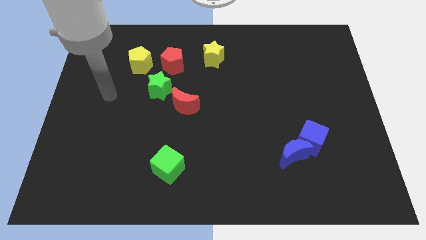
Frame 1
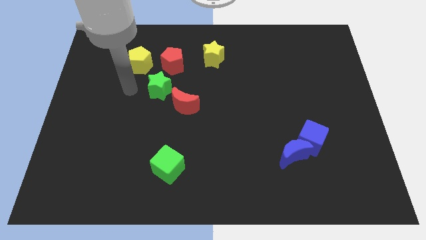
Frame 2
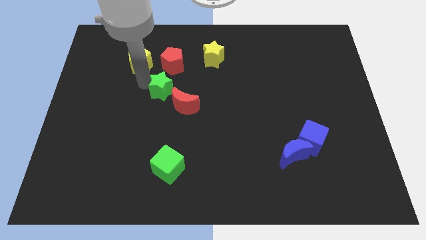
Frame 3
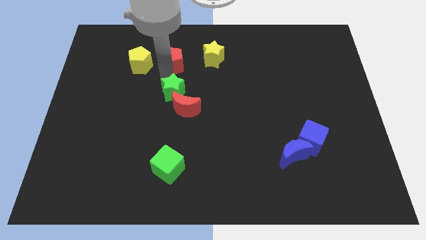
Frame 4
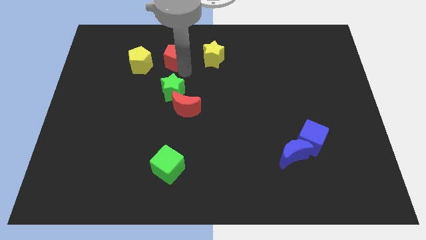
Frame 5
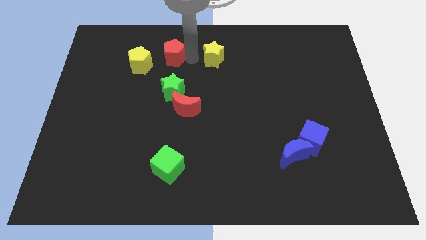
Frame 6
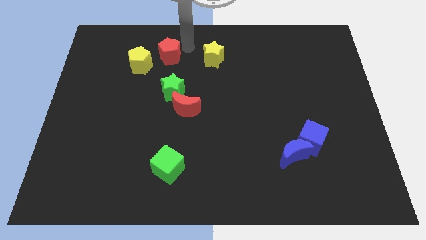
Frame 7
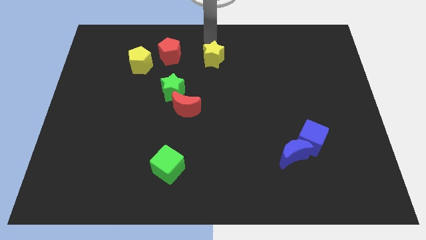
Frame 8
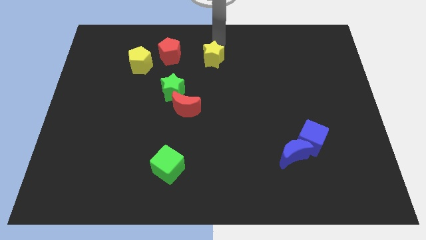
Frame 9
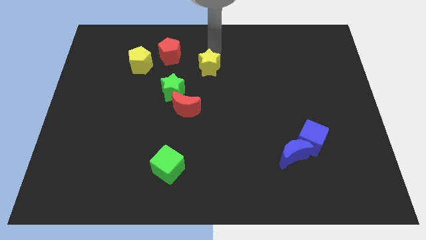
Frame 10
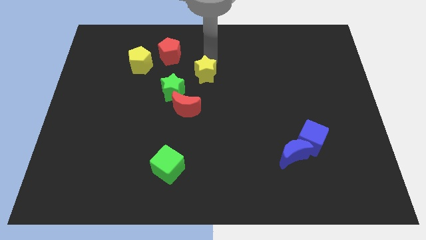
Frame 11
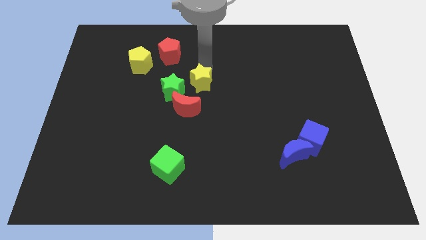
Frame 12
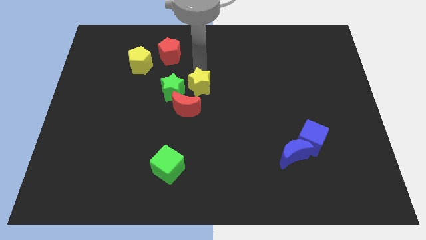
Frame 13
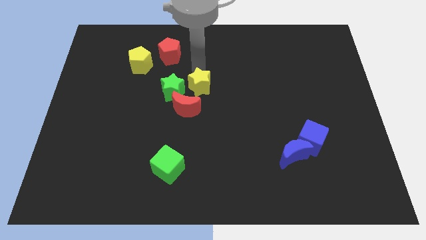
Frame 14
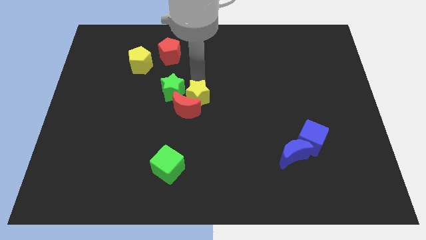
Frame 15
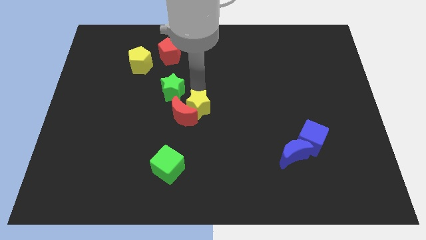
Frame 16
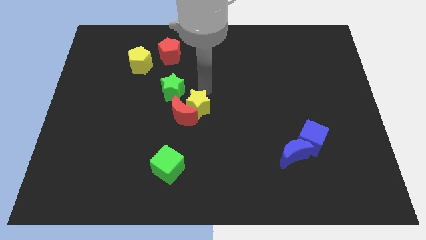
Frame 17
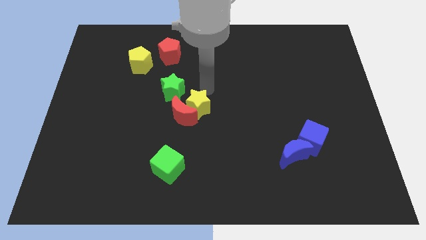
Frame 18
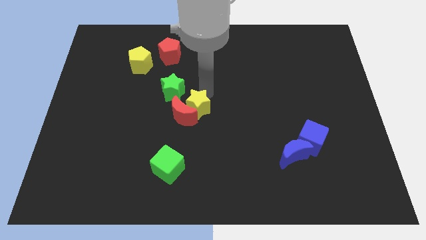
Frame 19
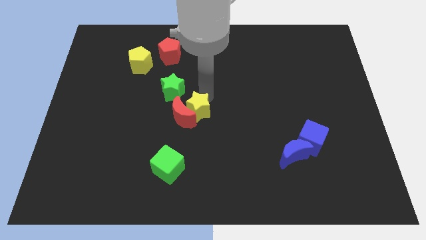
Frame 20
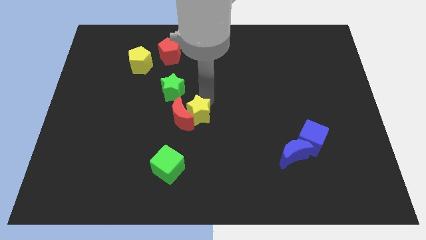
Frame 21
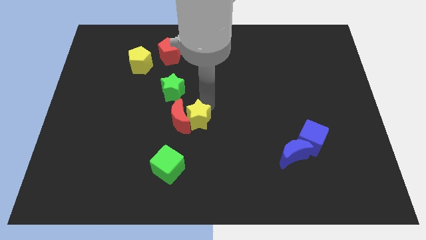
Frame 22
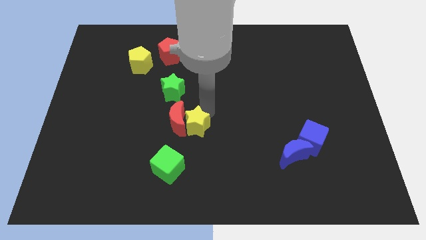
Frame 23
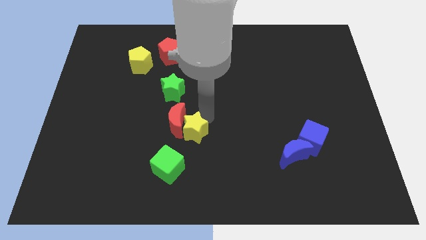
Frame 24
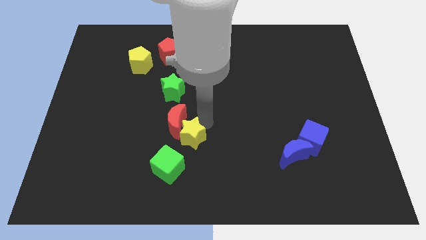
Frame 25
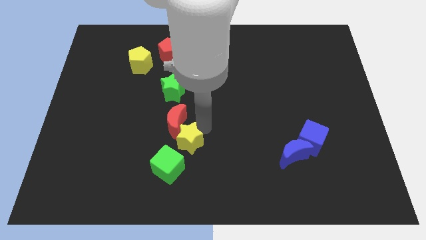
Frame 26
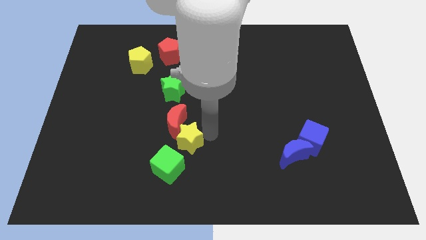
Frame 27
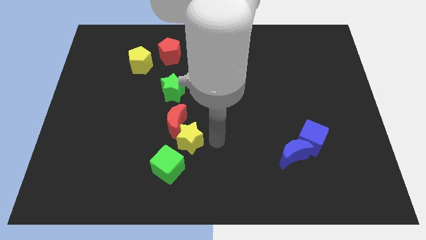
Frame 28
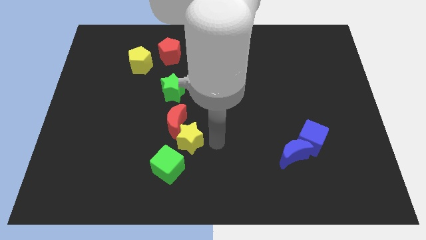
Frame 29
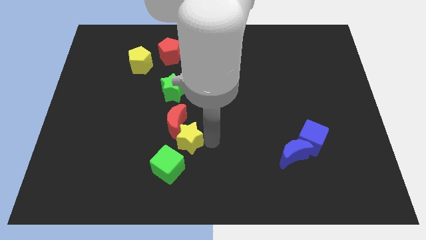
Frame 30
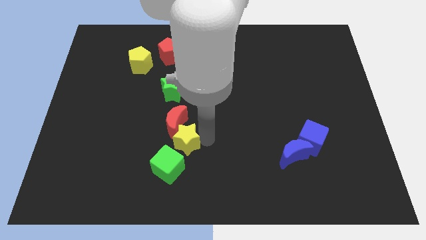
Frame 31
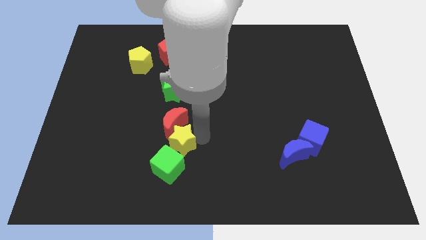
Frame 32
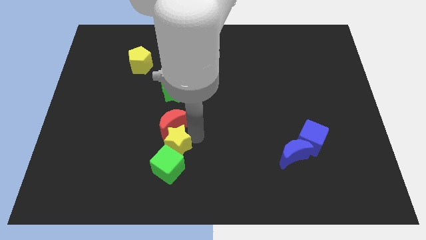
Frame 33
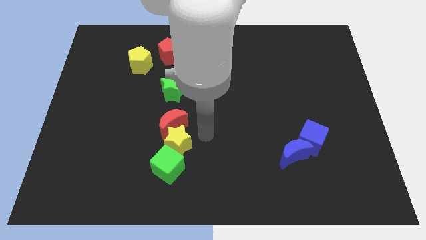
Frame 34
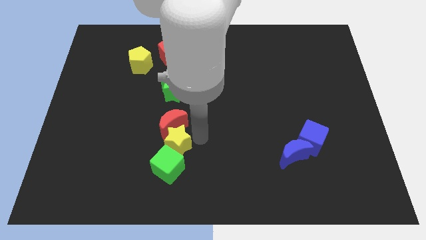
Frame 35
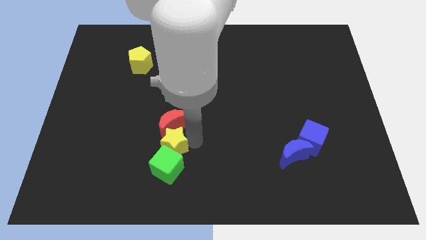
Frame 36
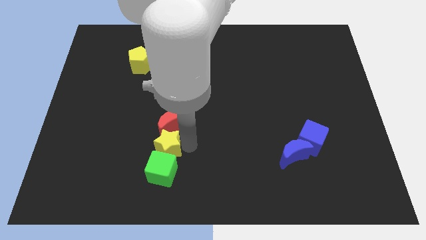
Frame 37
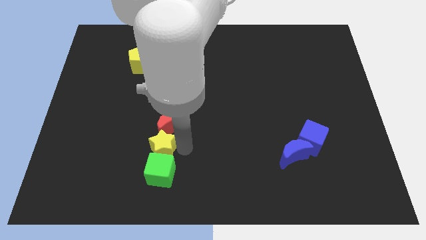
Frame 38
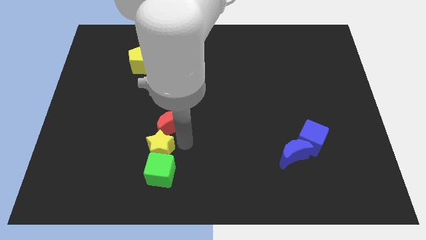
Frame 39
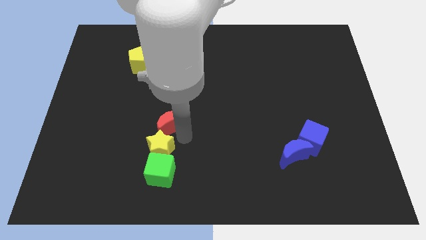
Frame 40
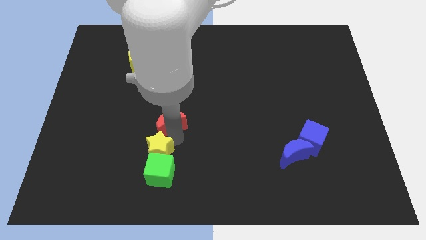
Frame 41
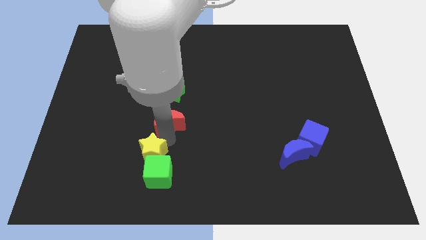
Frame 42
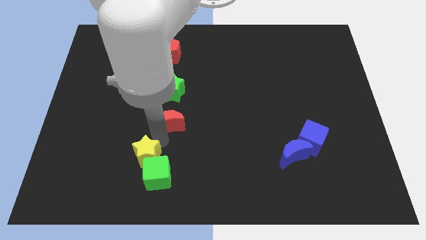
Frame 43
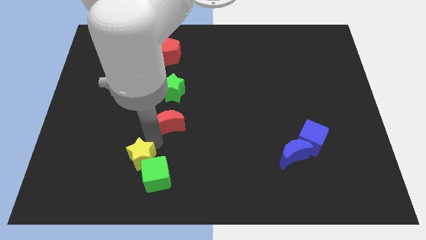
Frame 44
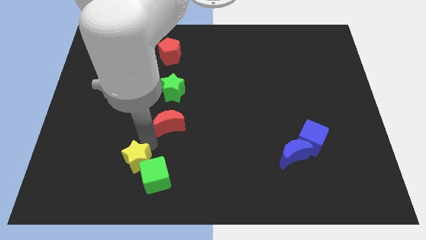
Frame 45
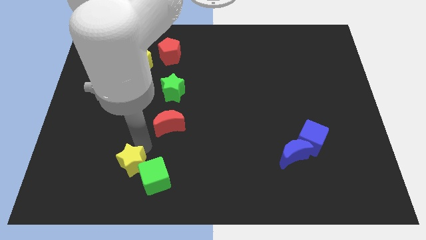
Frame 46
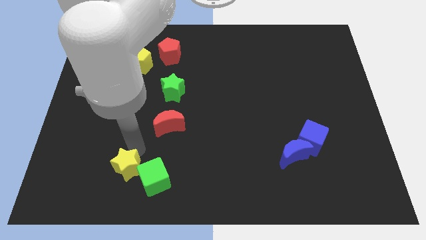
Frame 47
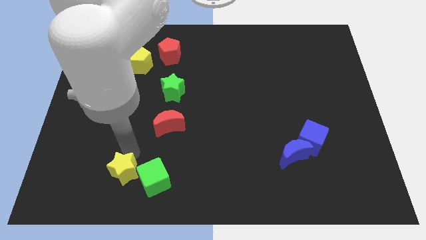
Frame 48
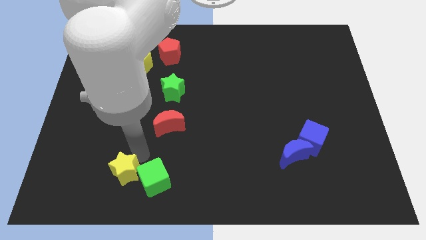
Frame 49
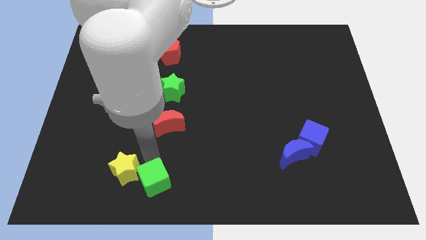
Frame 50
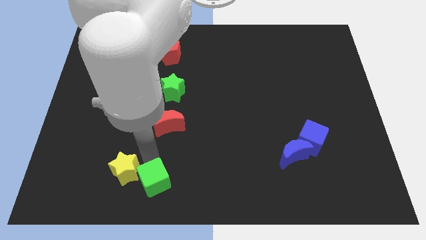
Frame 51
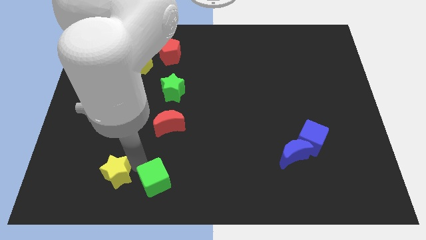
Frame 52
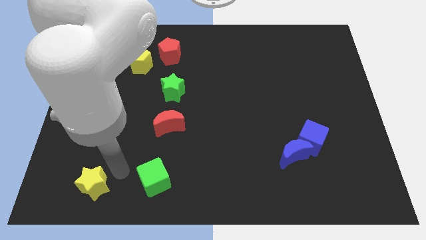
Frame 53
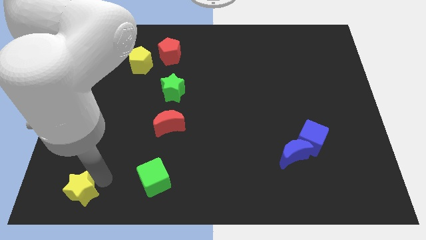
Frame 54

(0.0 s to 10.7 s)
put the yellow star to the bottom left of the board
